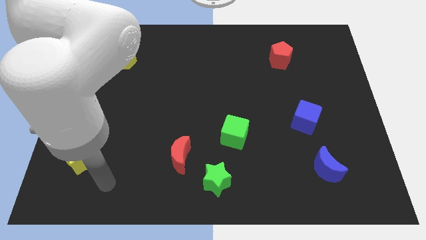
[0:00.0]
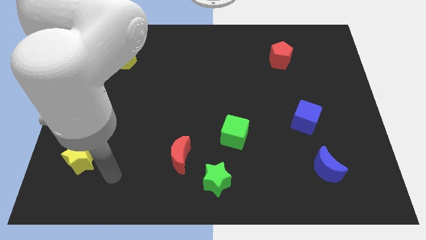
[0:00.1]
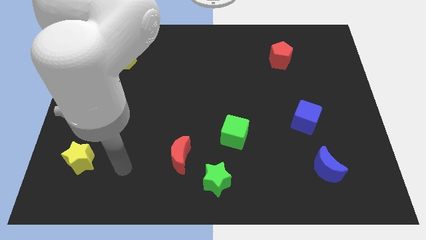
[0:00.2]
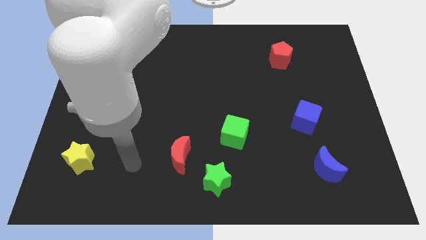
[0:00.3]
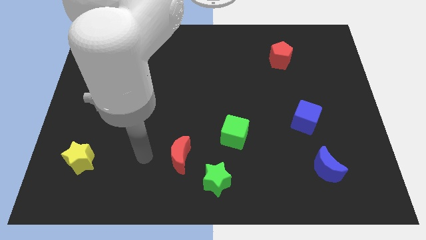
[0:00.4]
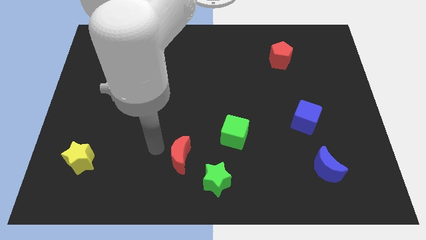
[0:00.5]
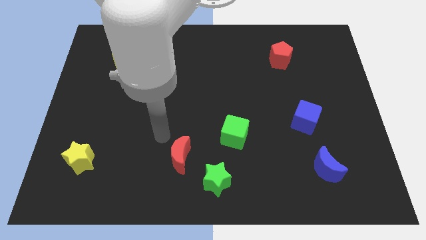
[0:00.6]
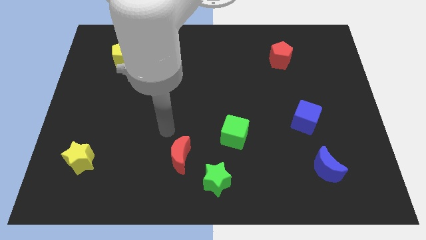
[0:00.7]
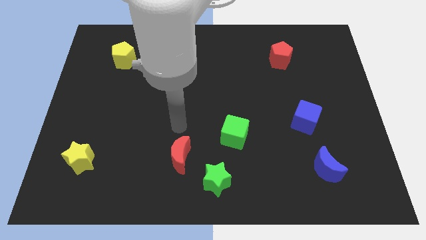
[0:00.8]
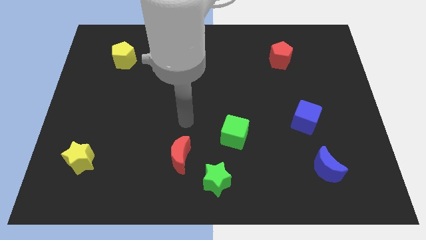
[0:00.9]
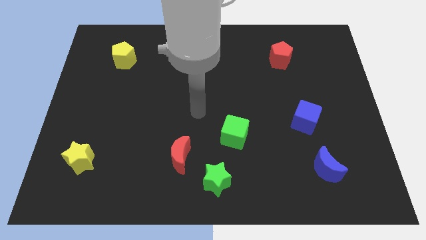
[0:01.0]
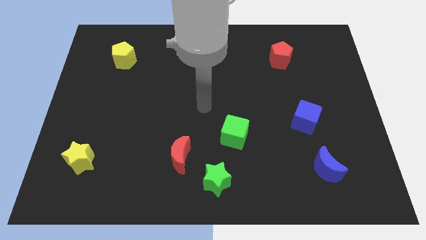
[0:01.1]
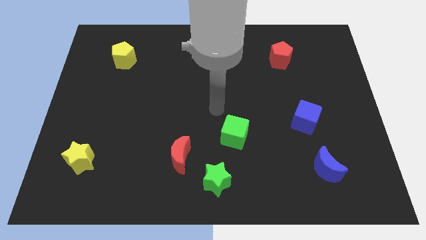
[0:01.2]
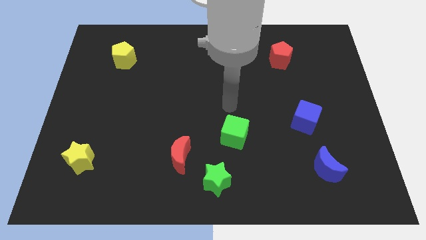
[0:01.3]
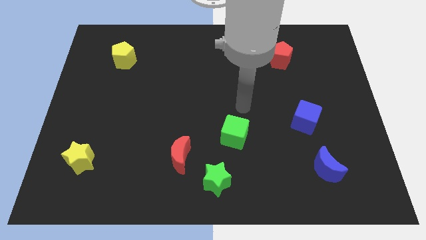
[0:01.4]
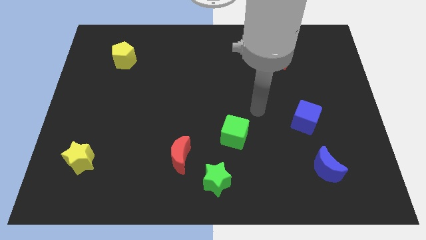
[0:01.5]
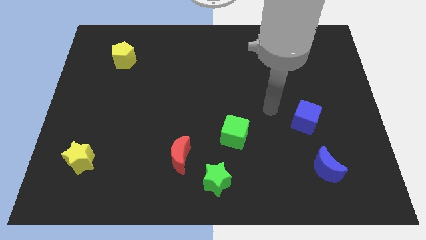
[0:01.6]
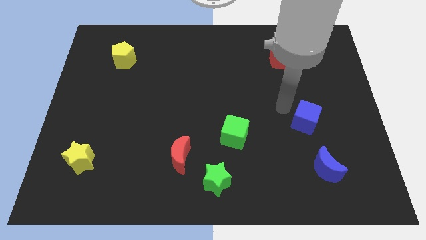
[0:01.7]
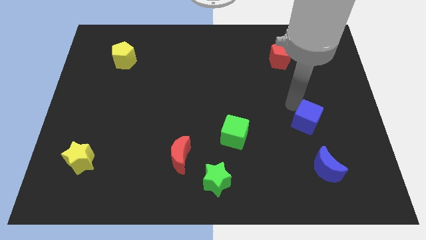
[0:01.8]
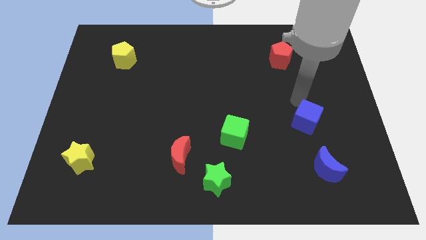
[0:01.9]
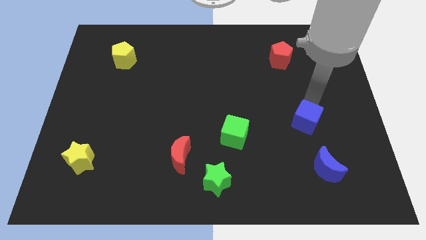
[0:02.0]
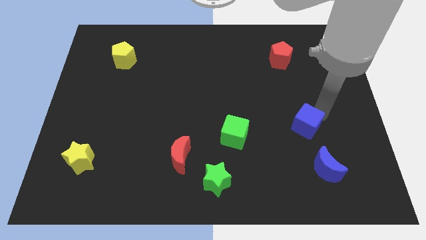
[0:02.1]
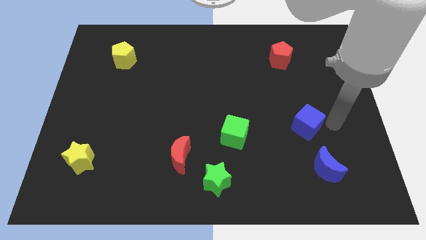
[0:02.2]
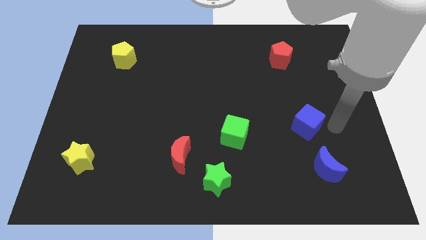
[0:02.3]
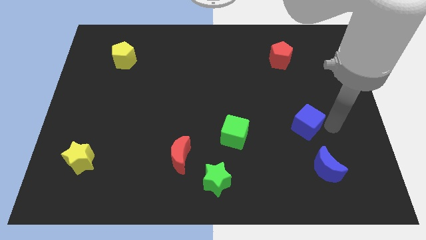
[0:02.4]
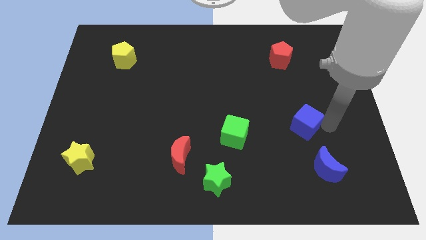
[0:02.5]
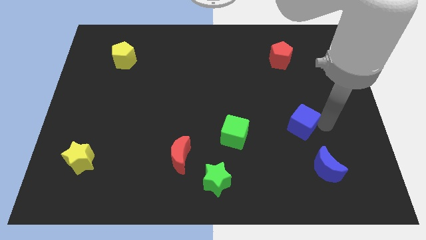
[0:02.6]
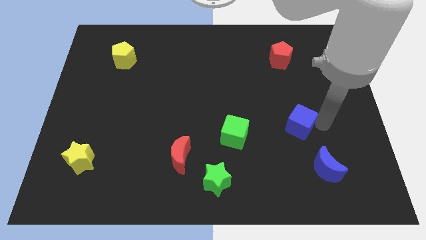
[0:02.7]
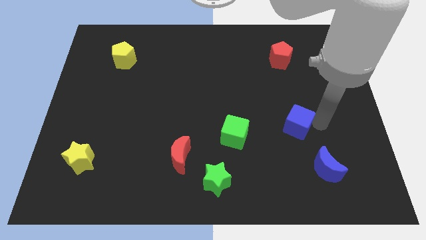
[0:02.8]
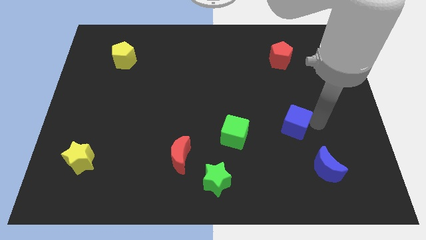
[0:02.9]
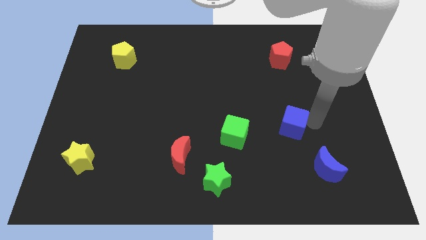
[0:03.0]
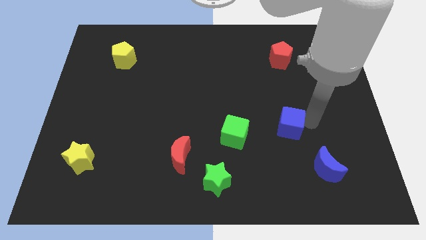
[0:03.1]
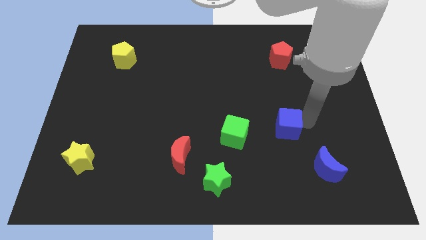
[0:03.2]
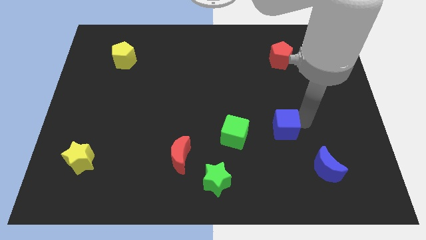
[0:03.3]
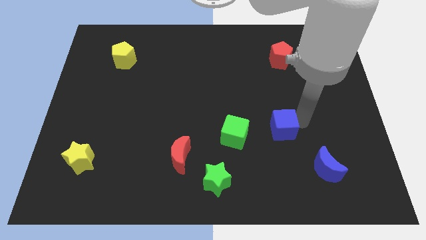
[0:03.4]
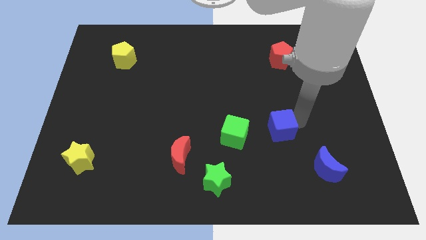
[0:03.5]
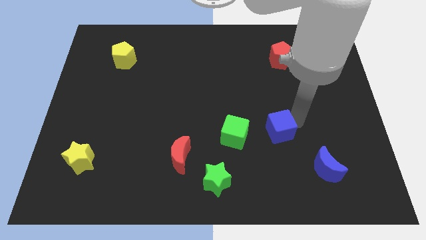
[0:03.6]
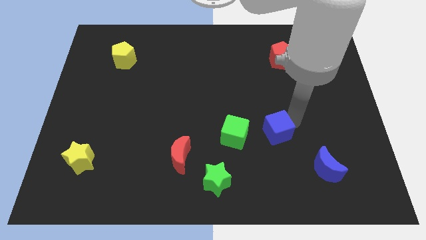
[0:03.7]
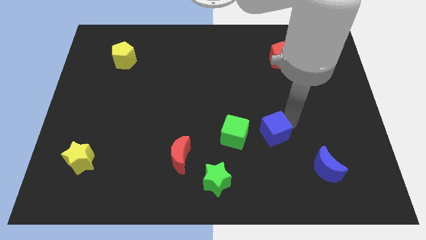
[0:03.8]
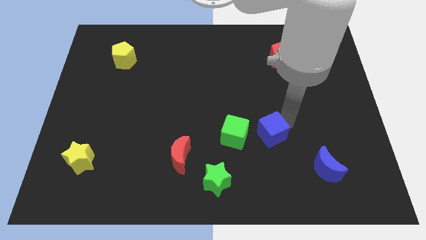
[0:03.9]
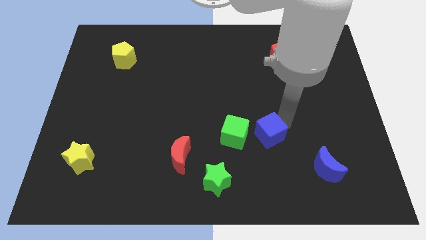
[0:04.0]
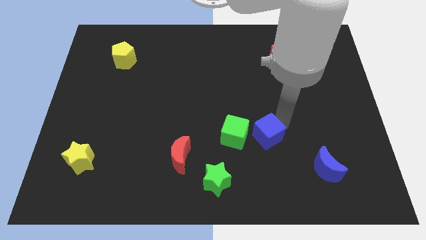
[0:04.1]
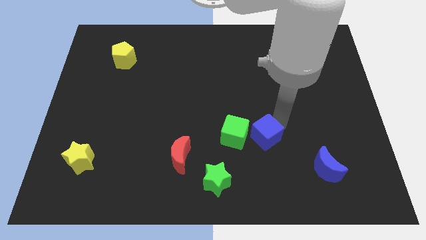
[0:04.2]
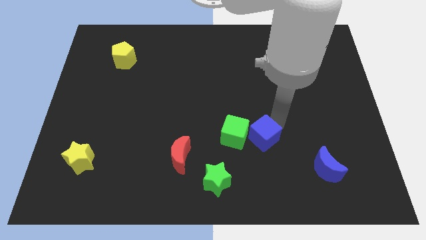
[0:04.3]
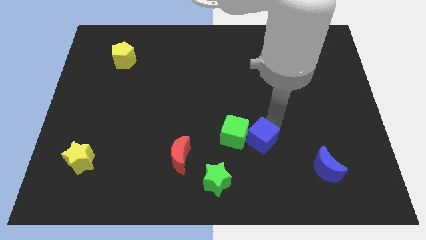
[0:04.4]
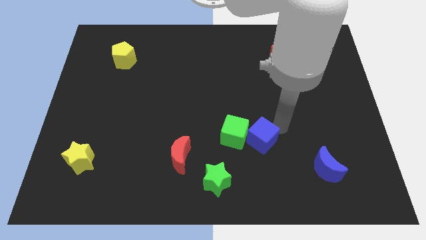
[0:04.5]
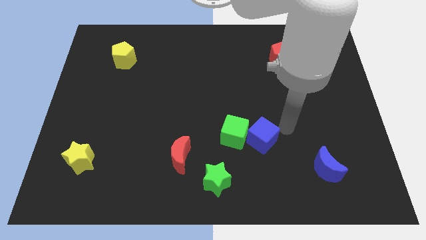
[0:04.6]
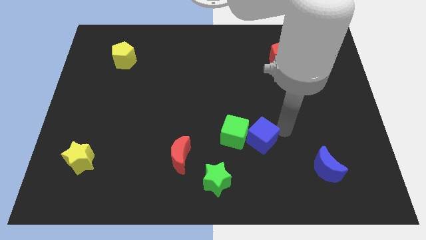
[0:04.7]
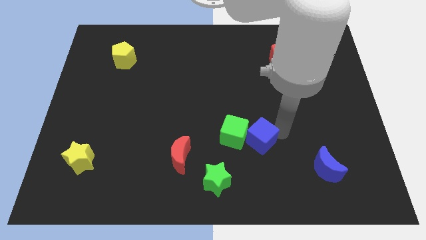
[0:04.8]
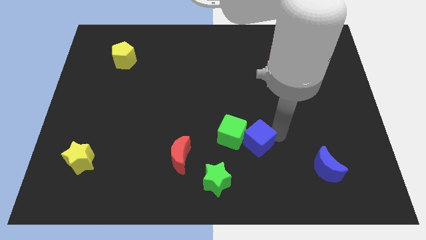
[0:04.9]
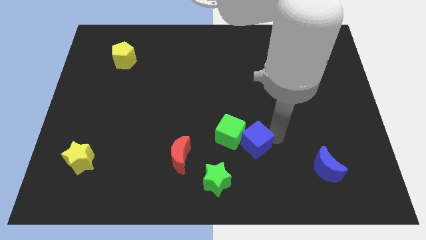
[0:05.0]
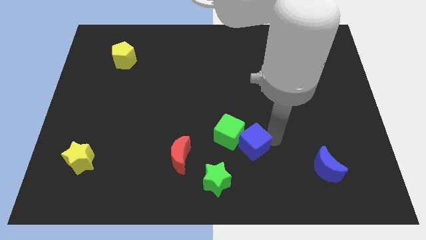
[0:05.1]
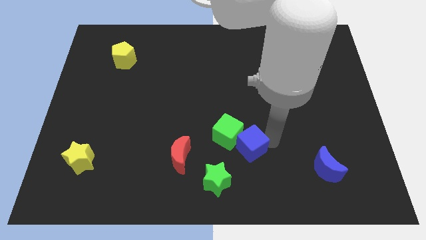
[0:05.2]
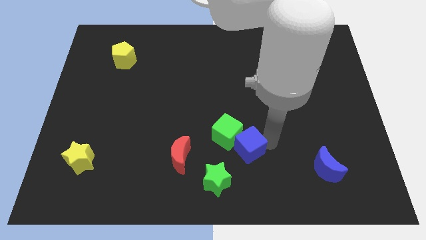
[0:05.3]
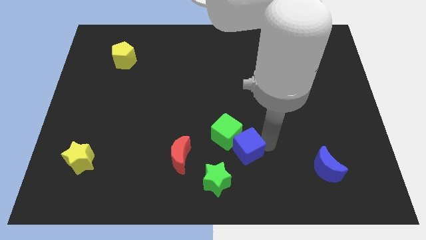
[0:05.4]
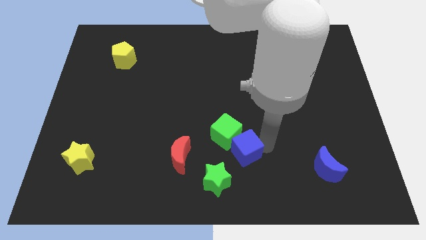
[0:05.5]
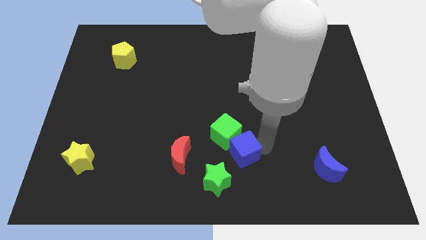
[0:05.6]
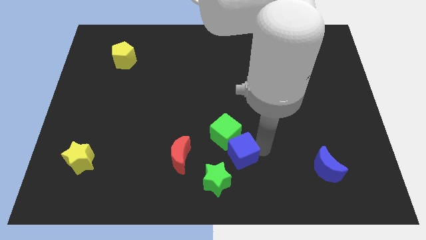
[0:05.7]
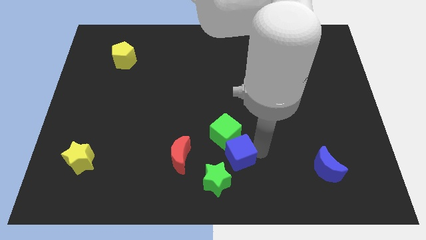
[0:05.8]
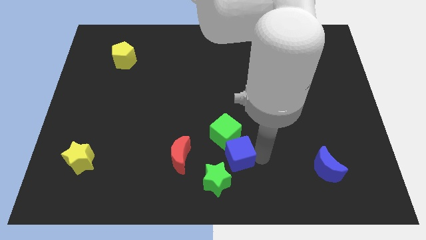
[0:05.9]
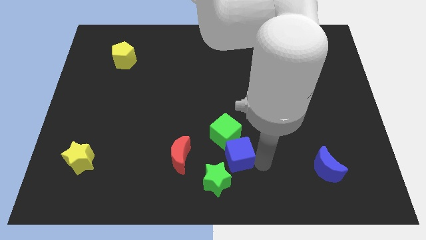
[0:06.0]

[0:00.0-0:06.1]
move the blue cube to the top side of the green star

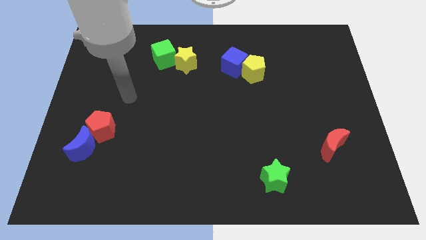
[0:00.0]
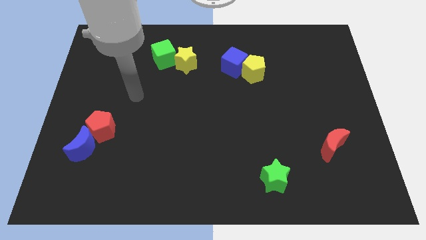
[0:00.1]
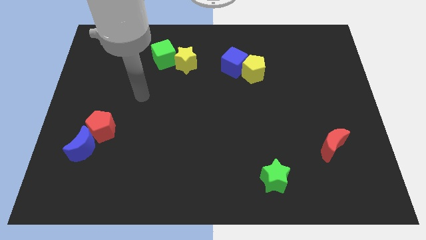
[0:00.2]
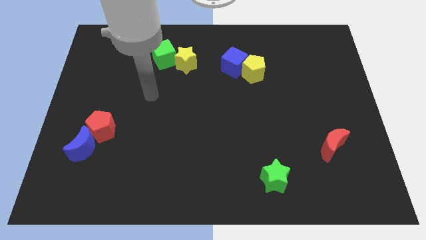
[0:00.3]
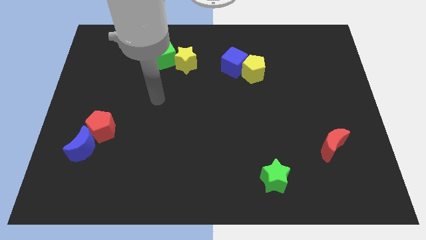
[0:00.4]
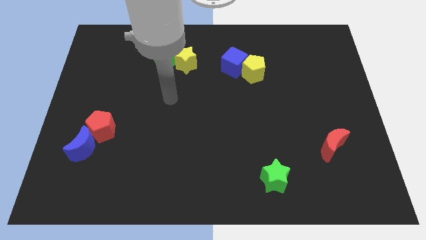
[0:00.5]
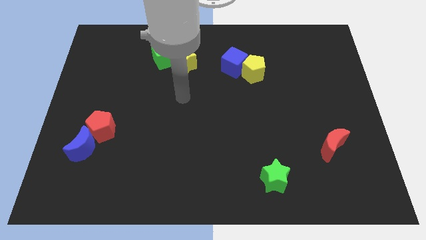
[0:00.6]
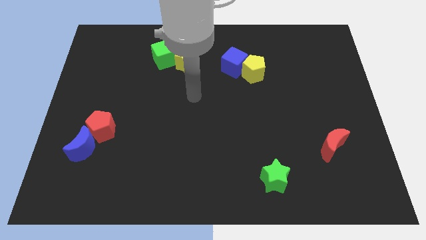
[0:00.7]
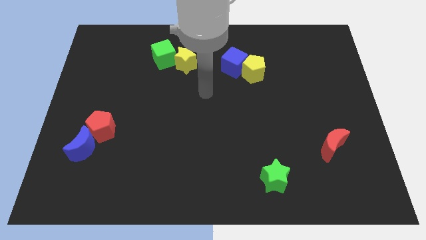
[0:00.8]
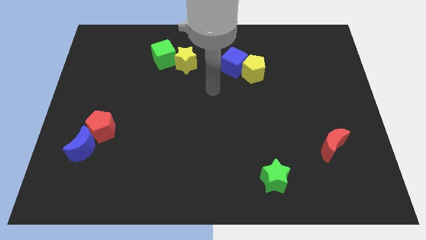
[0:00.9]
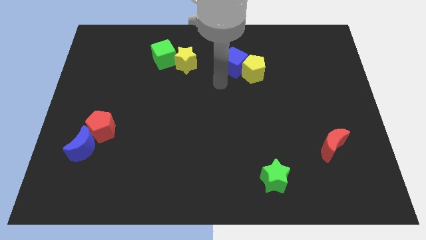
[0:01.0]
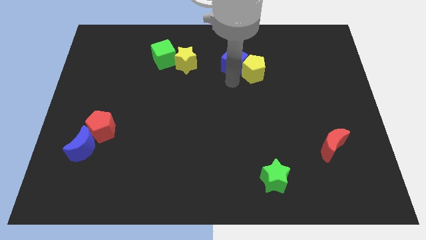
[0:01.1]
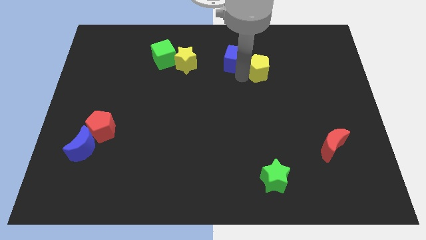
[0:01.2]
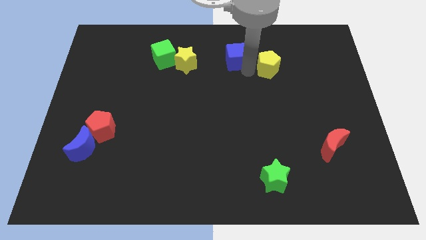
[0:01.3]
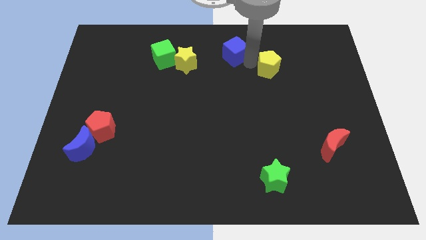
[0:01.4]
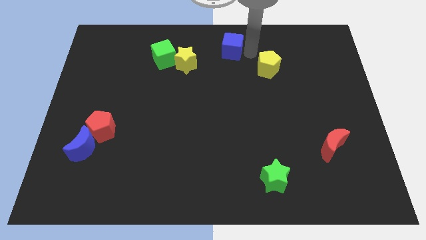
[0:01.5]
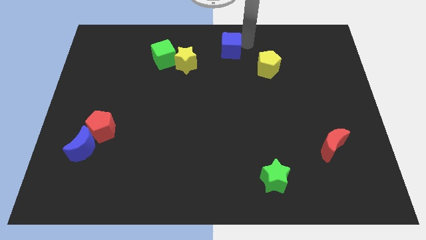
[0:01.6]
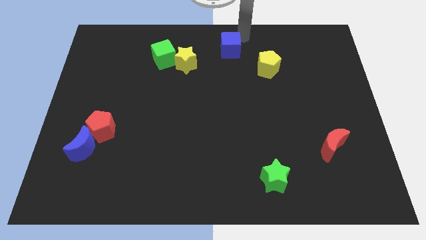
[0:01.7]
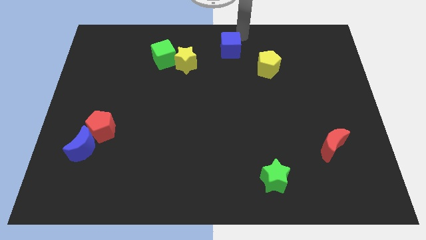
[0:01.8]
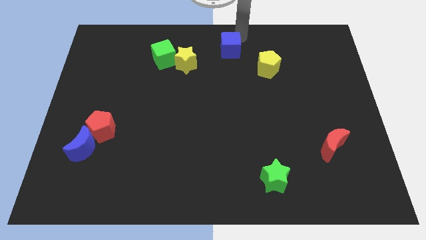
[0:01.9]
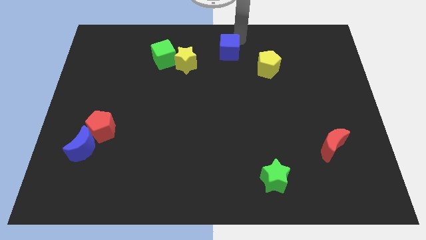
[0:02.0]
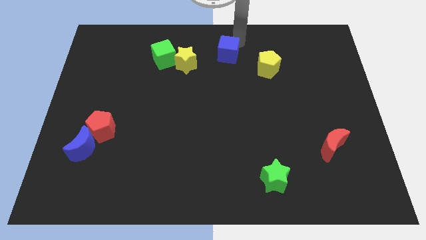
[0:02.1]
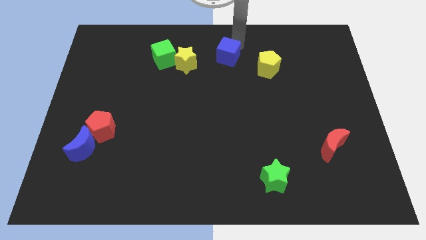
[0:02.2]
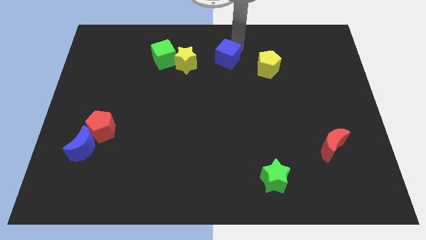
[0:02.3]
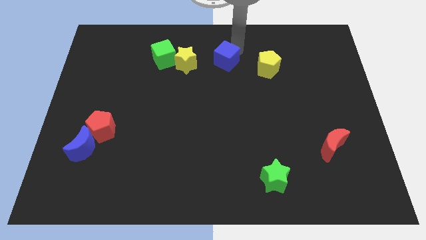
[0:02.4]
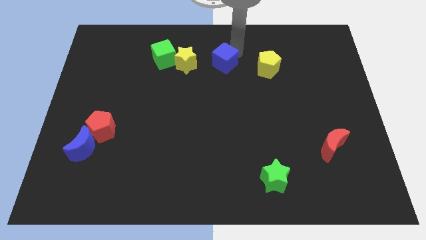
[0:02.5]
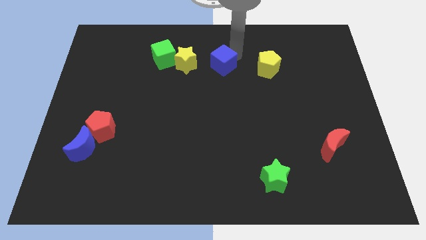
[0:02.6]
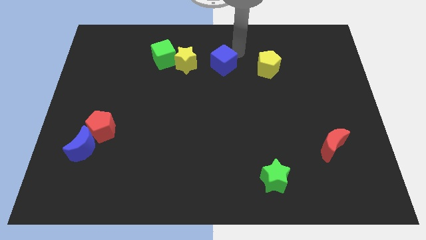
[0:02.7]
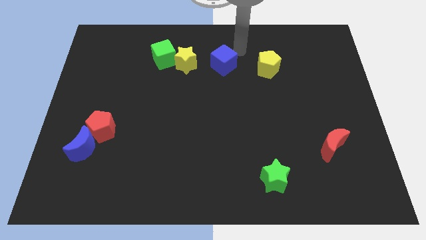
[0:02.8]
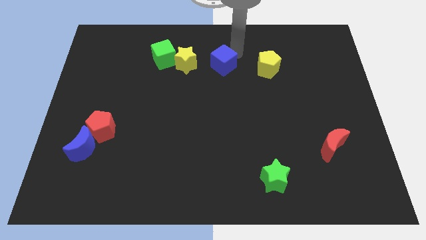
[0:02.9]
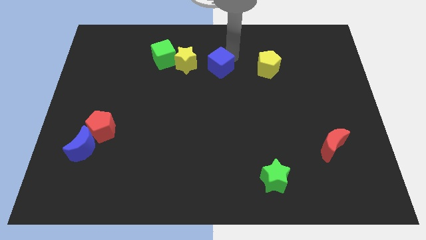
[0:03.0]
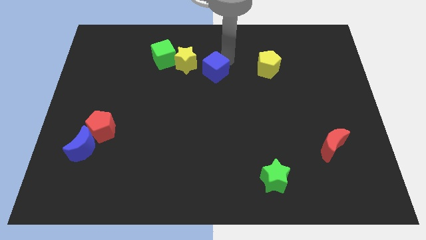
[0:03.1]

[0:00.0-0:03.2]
slide the blue cube to the bottom right side of the yellow star
